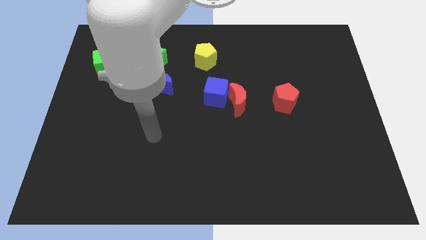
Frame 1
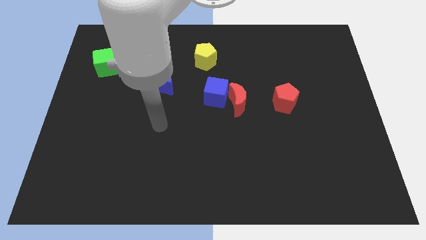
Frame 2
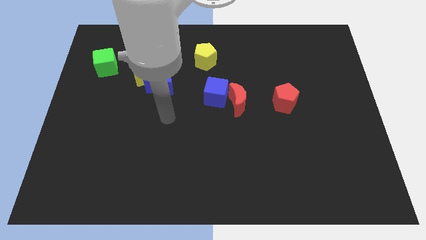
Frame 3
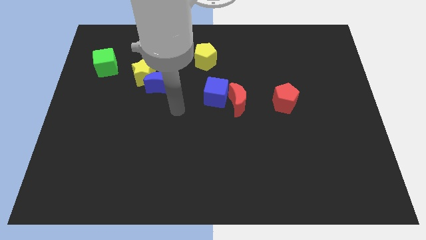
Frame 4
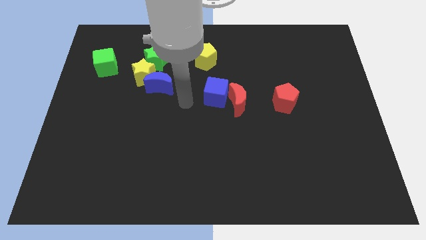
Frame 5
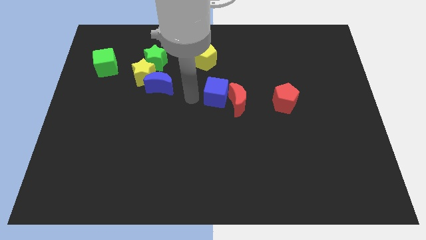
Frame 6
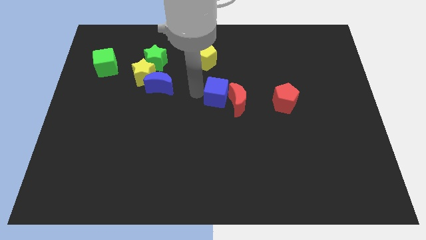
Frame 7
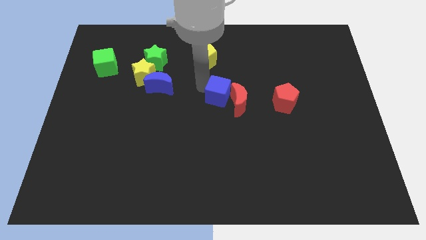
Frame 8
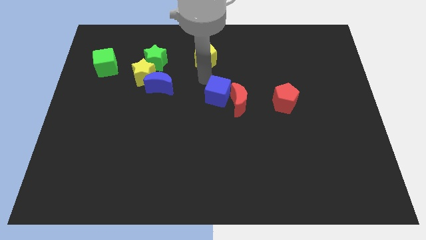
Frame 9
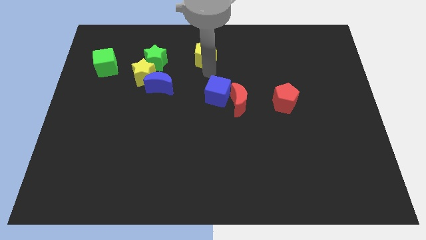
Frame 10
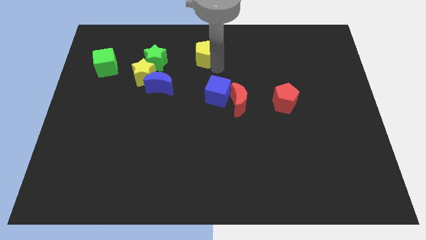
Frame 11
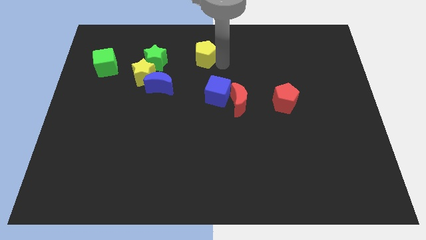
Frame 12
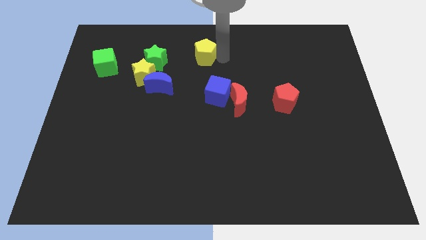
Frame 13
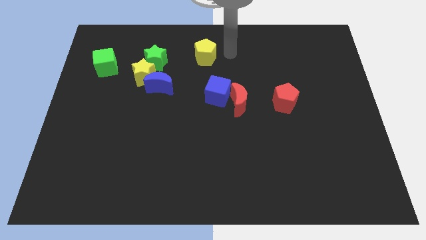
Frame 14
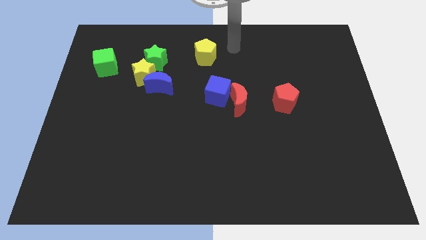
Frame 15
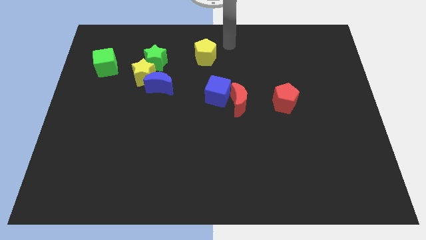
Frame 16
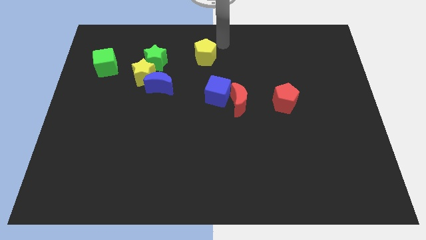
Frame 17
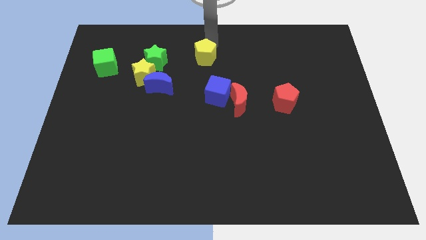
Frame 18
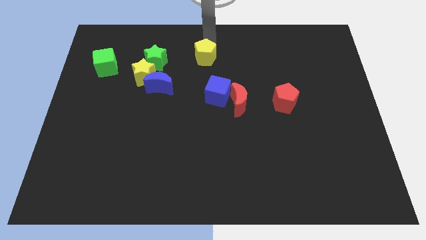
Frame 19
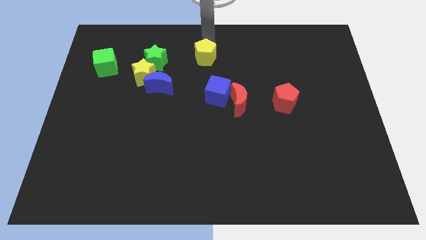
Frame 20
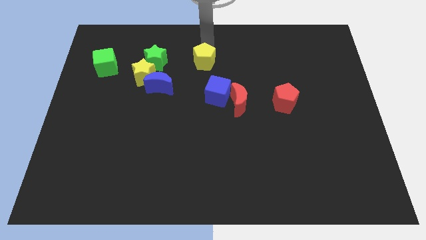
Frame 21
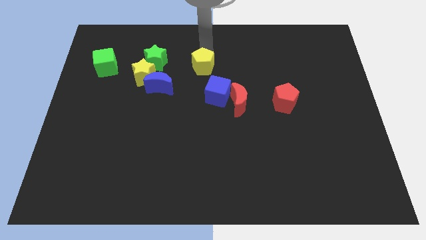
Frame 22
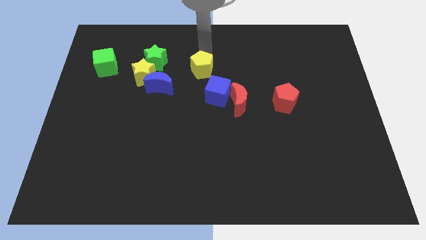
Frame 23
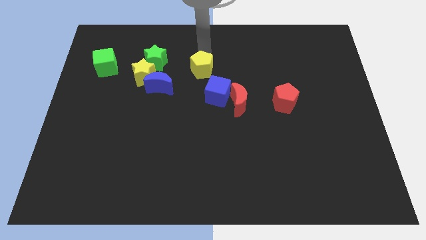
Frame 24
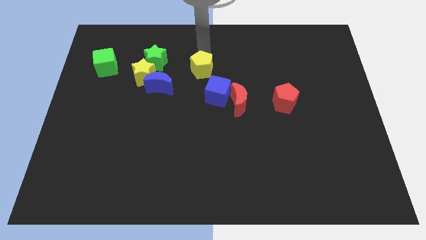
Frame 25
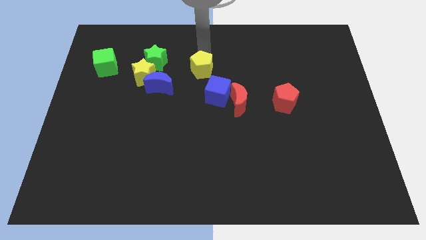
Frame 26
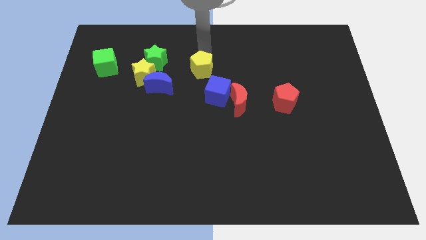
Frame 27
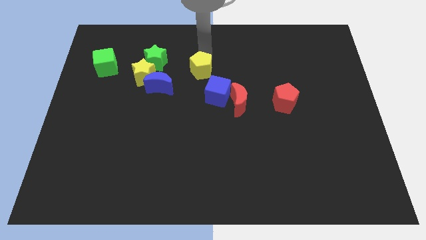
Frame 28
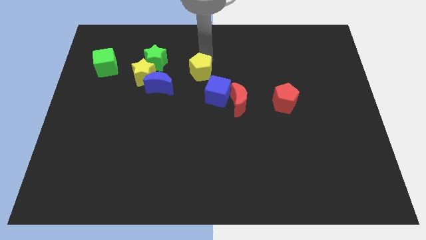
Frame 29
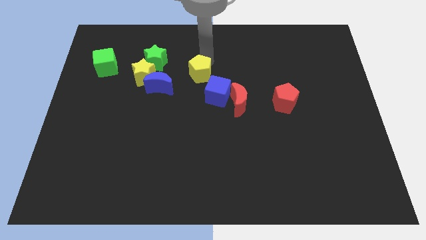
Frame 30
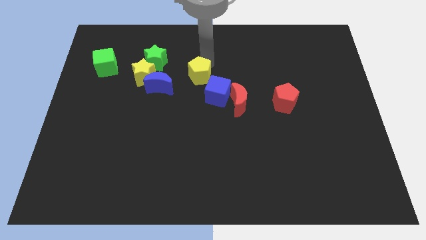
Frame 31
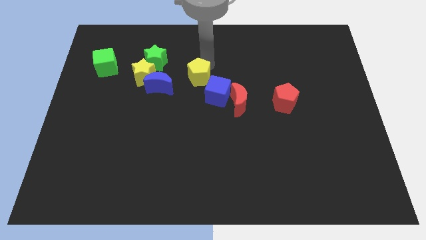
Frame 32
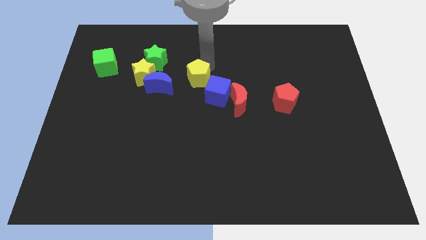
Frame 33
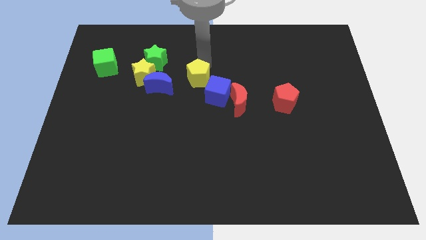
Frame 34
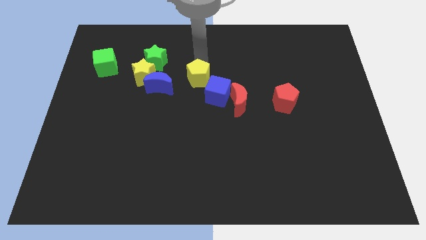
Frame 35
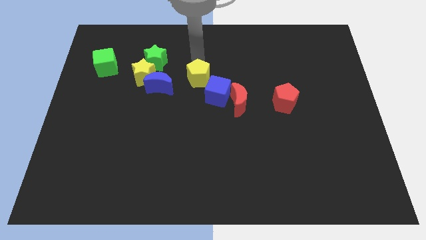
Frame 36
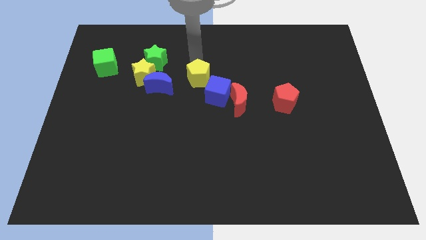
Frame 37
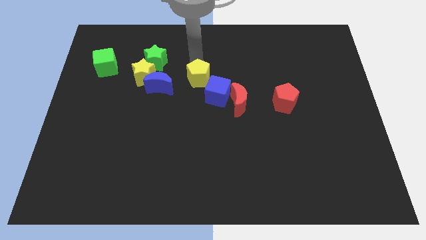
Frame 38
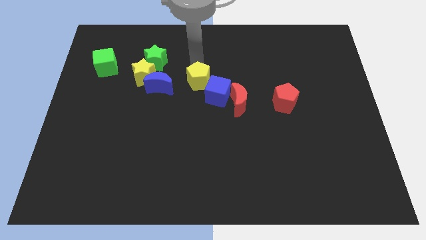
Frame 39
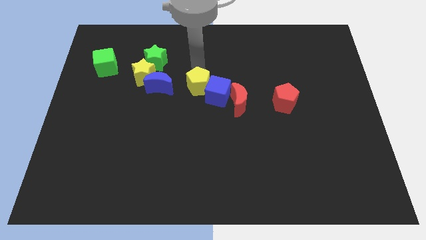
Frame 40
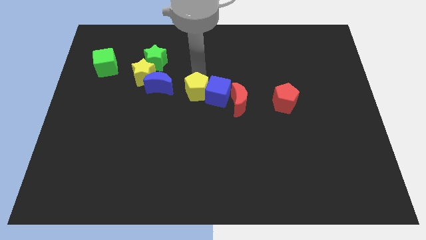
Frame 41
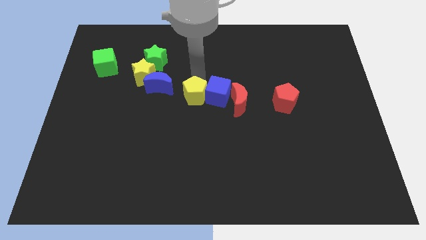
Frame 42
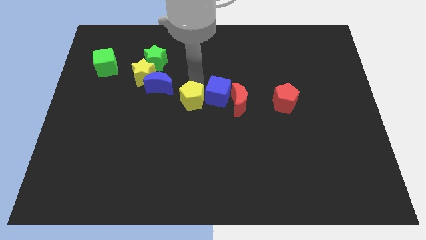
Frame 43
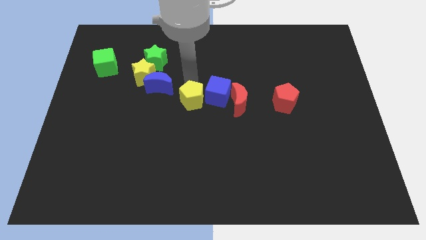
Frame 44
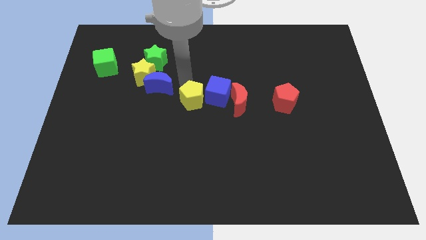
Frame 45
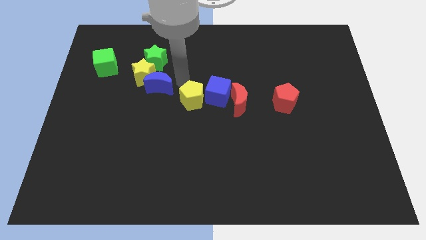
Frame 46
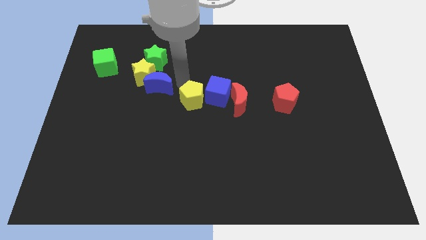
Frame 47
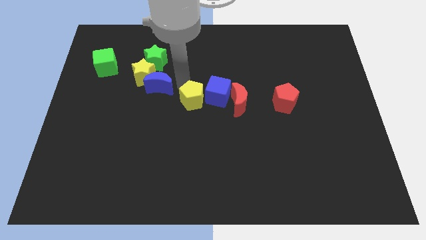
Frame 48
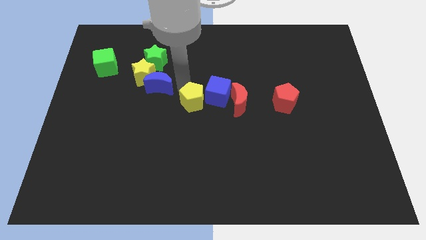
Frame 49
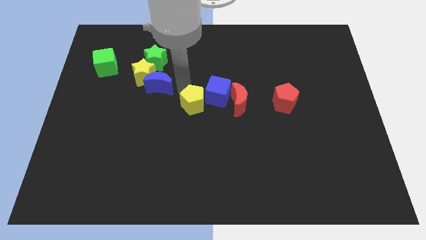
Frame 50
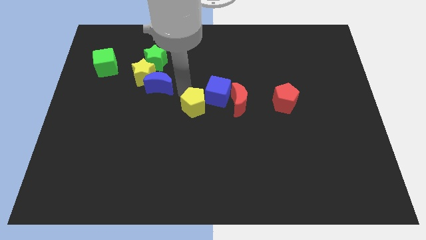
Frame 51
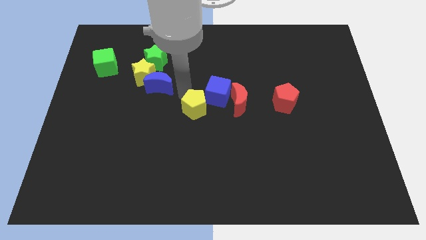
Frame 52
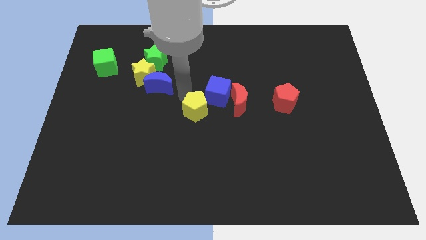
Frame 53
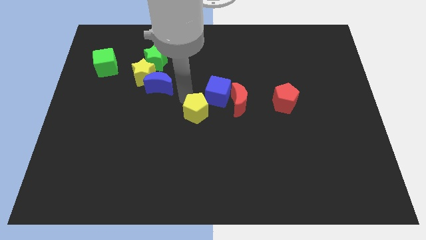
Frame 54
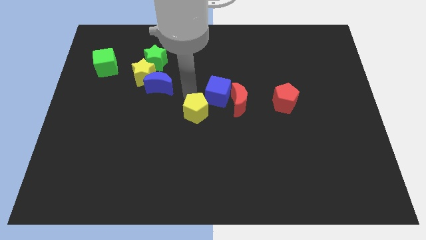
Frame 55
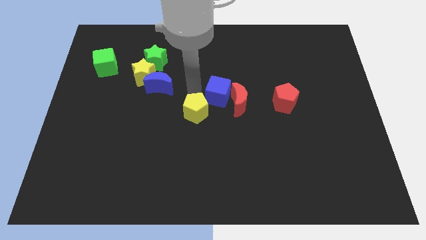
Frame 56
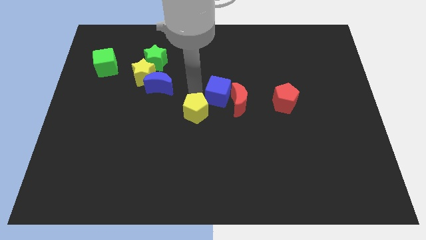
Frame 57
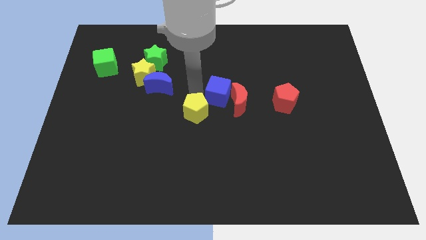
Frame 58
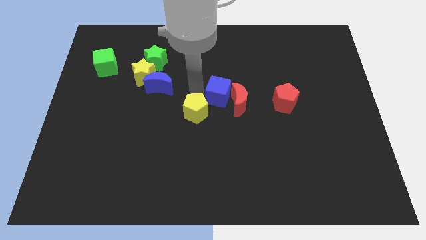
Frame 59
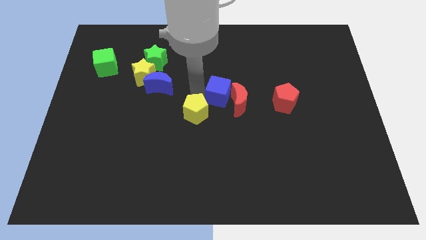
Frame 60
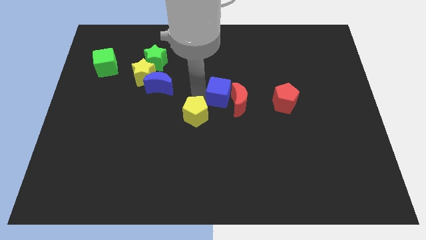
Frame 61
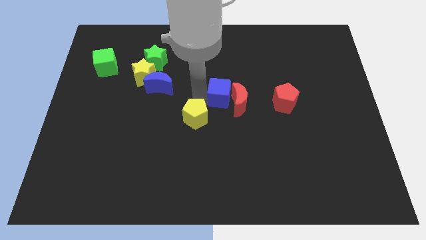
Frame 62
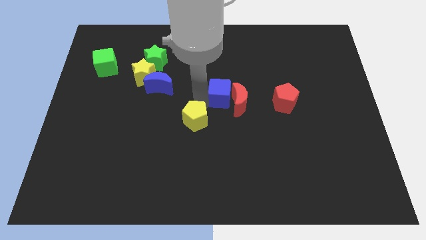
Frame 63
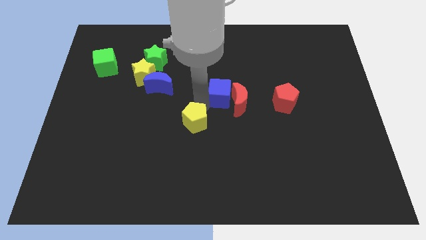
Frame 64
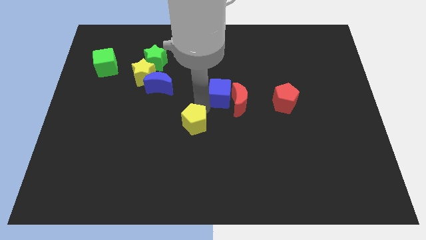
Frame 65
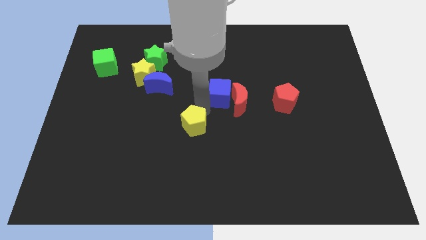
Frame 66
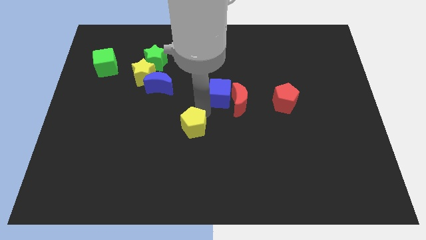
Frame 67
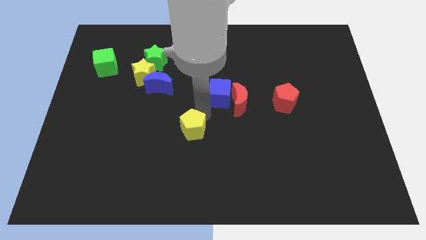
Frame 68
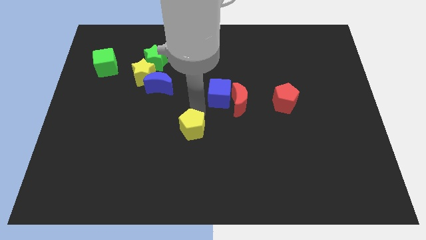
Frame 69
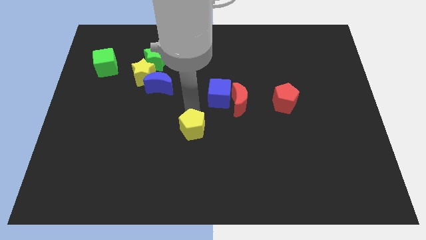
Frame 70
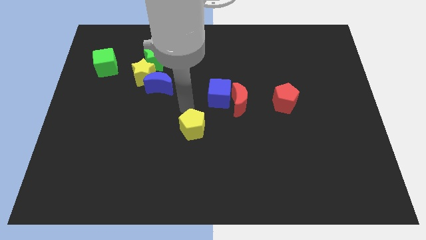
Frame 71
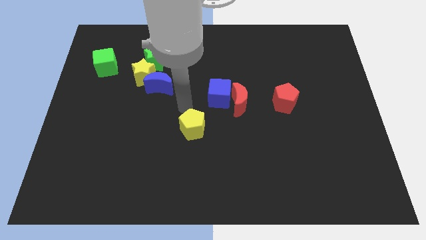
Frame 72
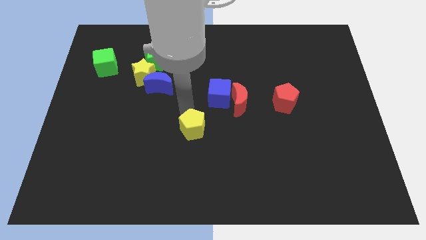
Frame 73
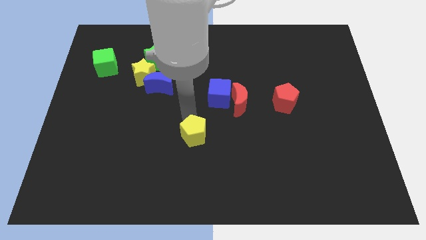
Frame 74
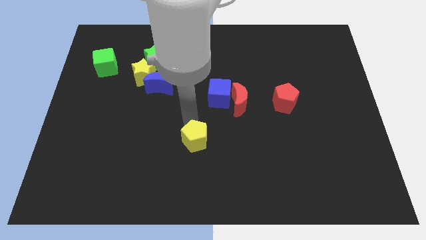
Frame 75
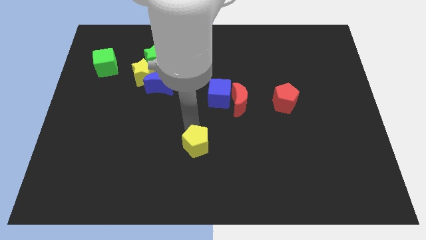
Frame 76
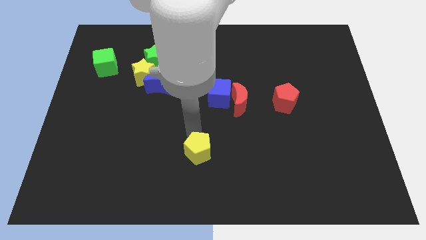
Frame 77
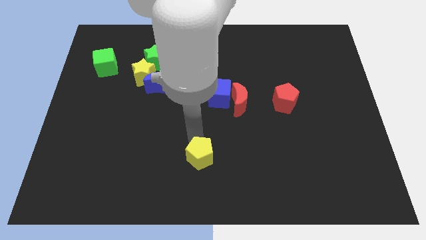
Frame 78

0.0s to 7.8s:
put the yellow pentagon to the bottom side
